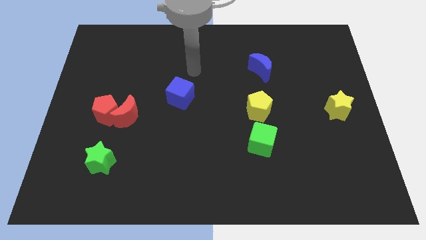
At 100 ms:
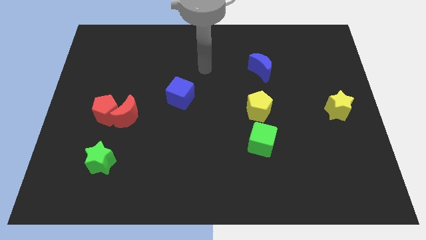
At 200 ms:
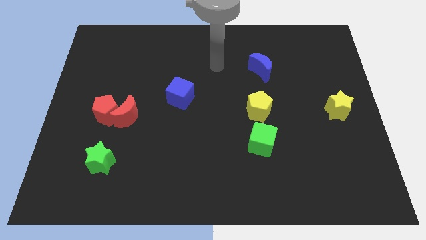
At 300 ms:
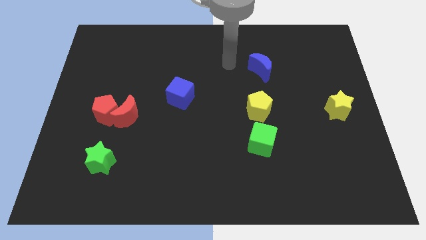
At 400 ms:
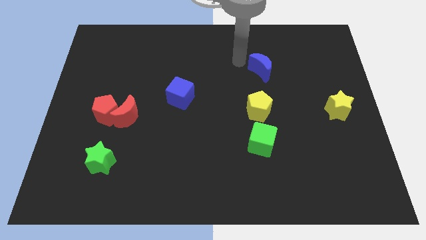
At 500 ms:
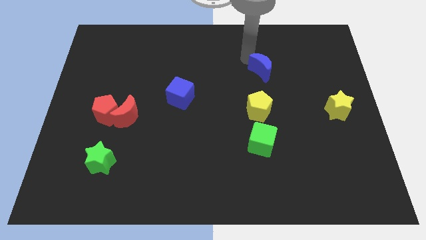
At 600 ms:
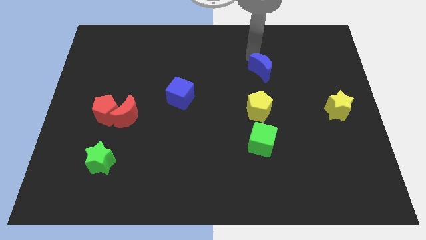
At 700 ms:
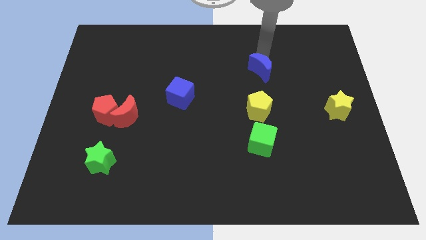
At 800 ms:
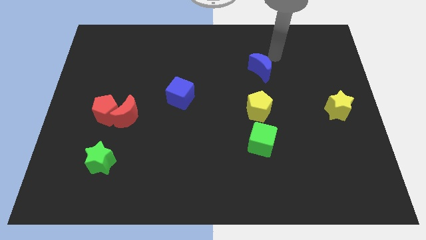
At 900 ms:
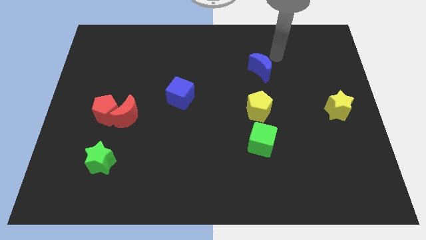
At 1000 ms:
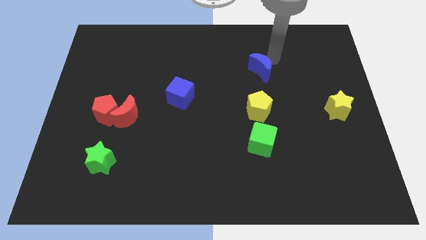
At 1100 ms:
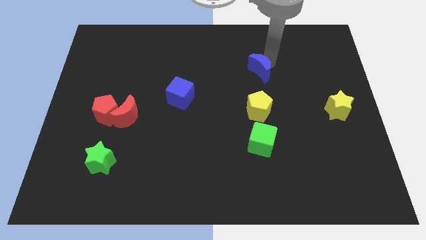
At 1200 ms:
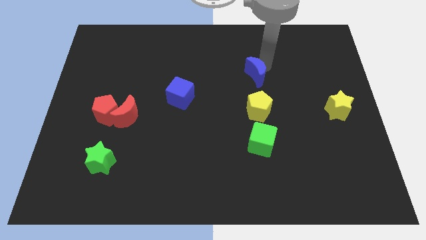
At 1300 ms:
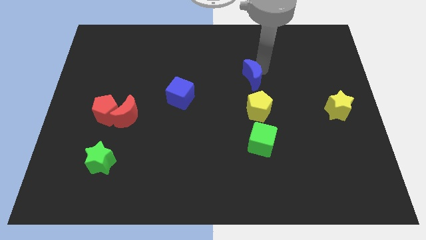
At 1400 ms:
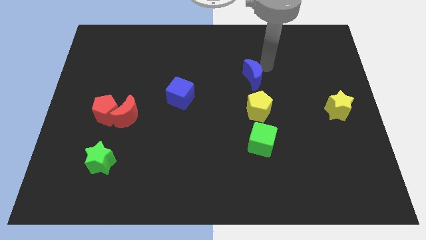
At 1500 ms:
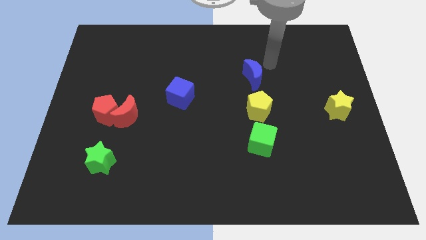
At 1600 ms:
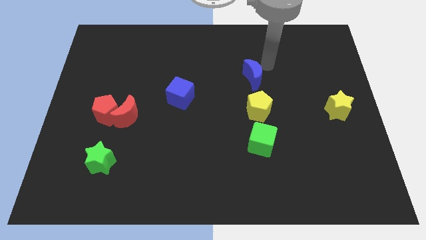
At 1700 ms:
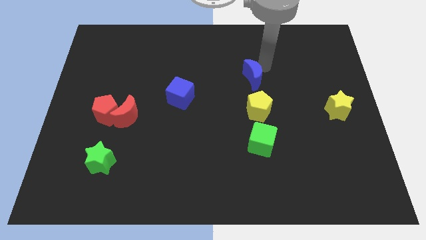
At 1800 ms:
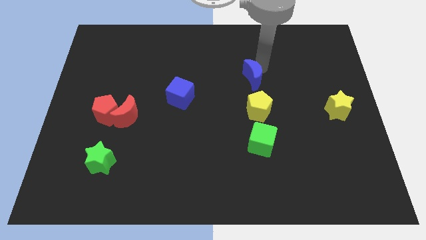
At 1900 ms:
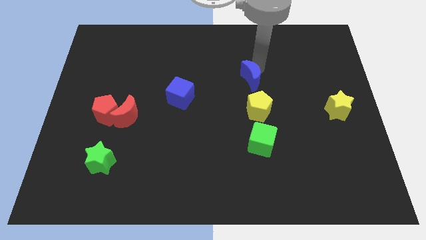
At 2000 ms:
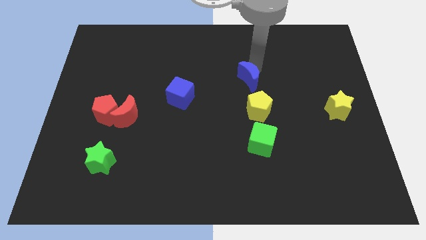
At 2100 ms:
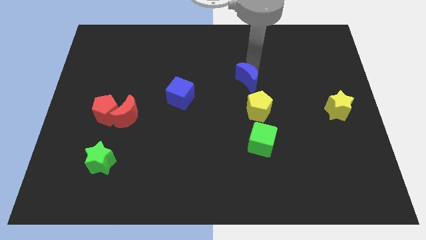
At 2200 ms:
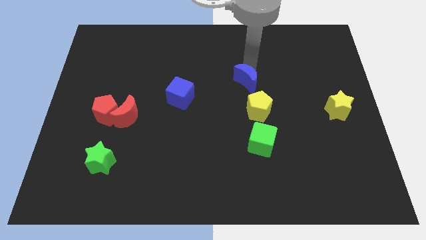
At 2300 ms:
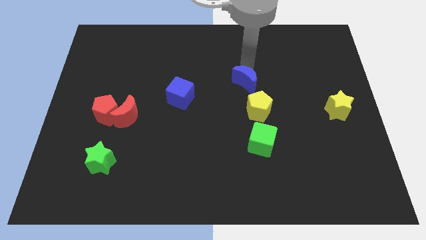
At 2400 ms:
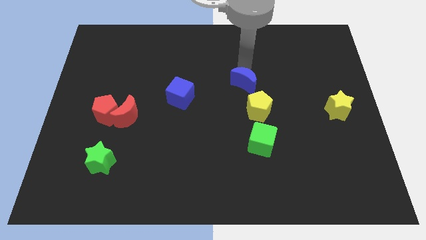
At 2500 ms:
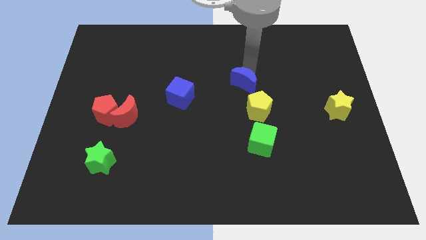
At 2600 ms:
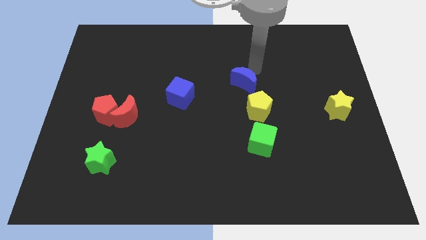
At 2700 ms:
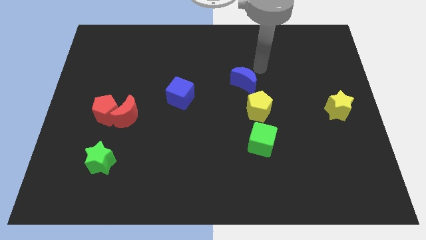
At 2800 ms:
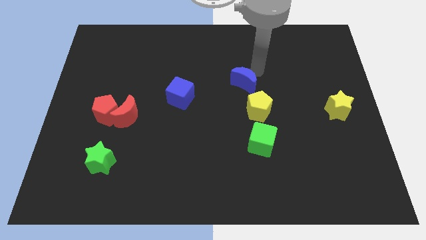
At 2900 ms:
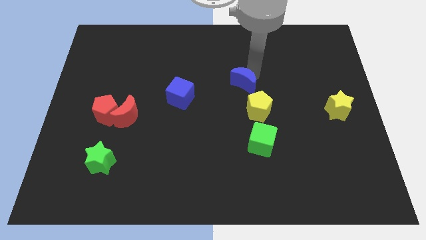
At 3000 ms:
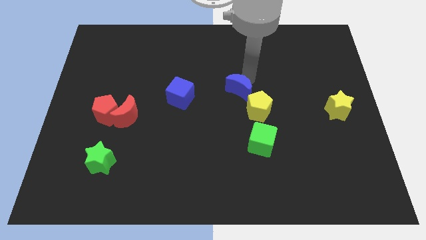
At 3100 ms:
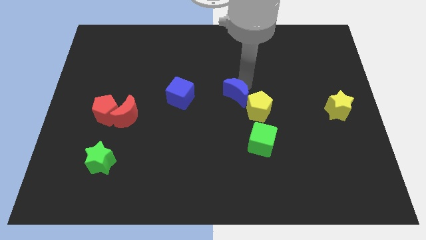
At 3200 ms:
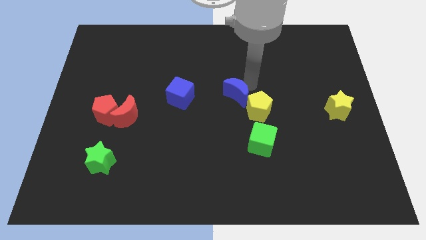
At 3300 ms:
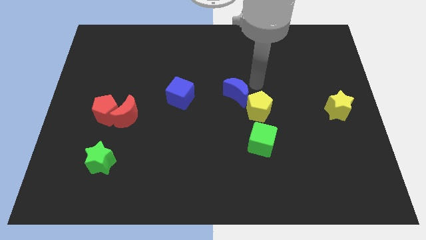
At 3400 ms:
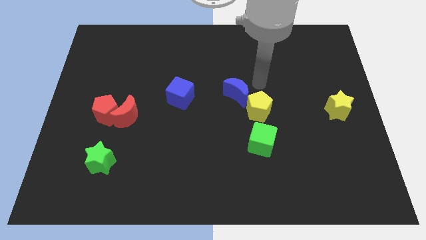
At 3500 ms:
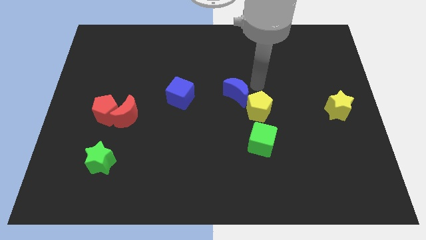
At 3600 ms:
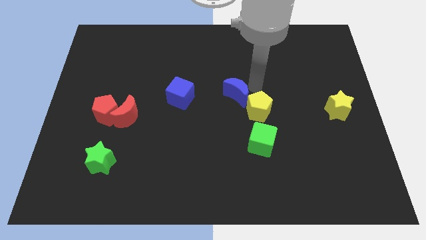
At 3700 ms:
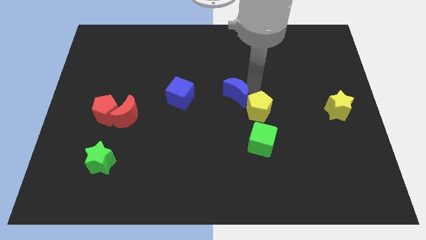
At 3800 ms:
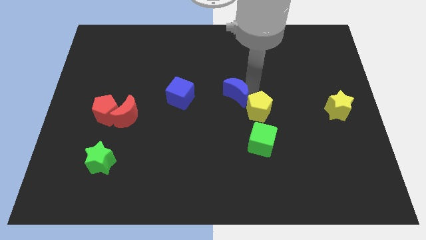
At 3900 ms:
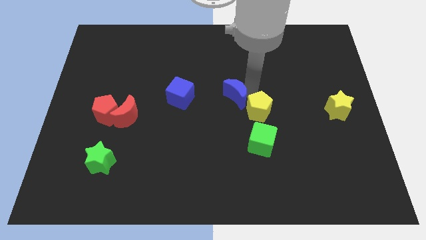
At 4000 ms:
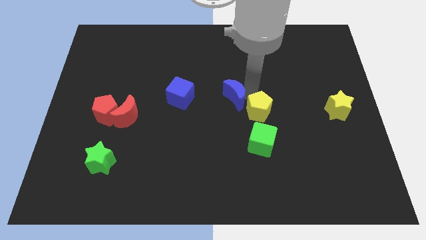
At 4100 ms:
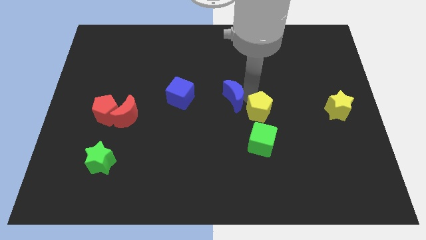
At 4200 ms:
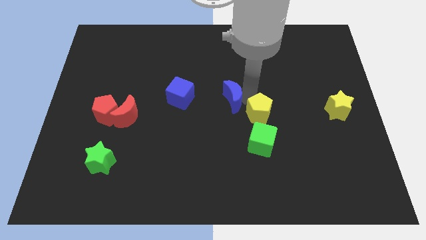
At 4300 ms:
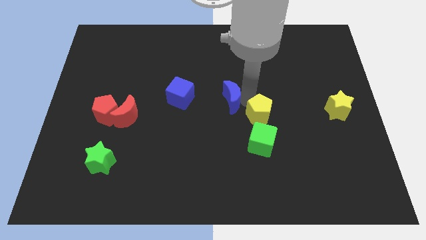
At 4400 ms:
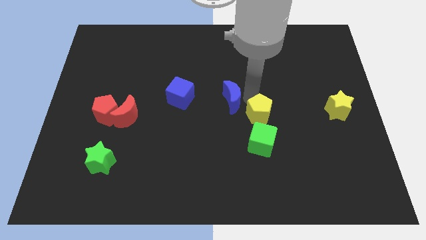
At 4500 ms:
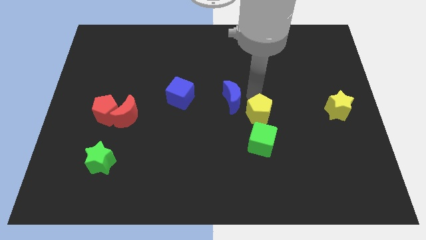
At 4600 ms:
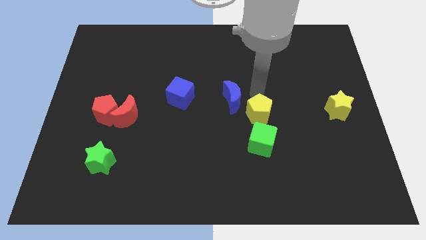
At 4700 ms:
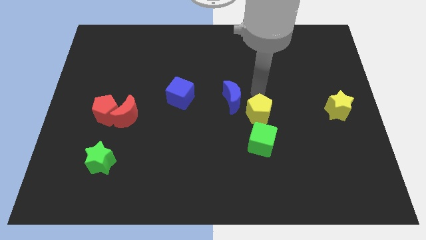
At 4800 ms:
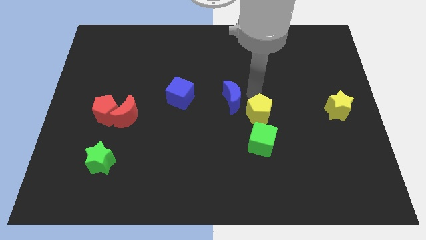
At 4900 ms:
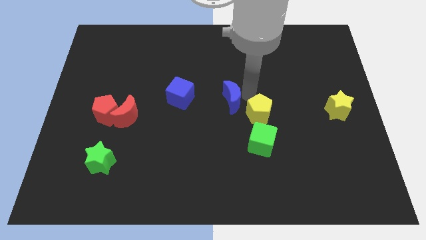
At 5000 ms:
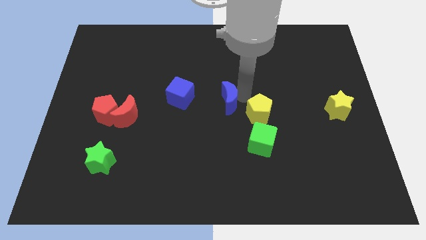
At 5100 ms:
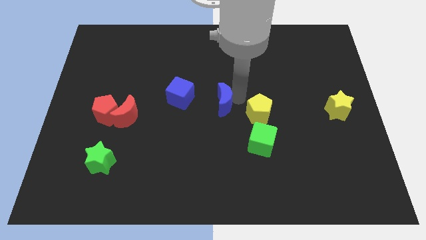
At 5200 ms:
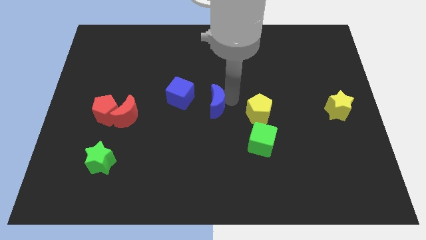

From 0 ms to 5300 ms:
move the blue moon to the bottom right side of the blue cube
